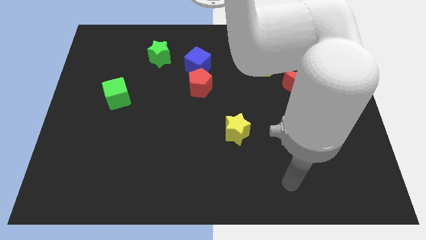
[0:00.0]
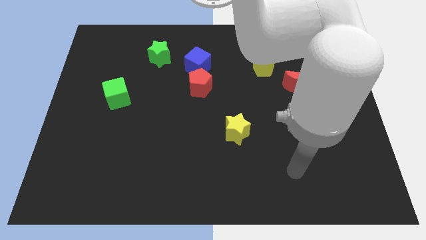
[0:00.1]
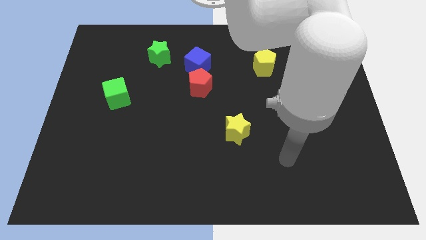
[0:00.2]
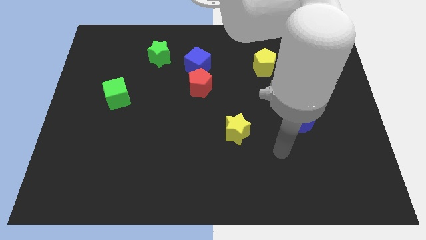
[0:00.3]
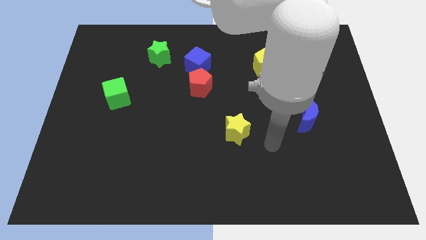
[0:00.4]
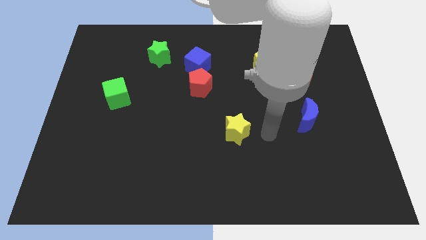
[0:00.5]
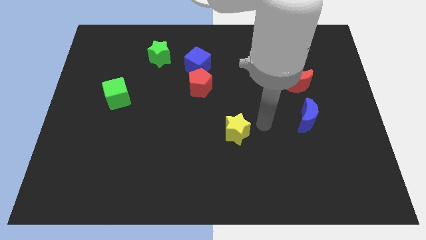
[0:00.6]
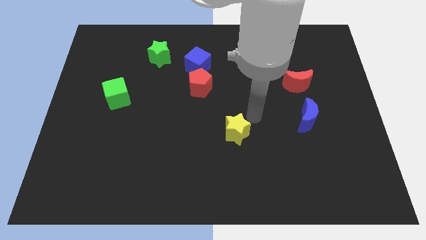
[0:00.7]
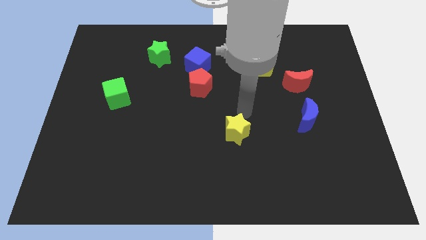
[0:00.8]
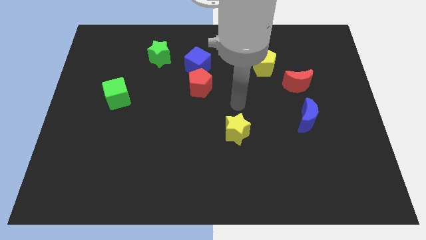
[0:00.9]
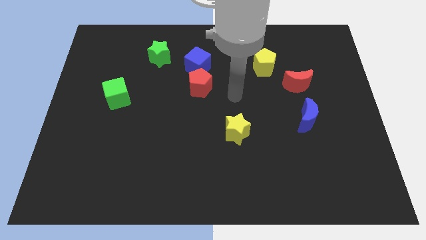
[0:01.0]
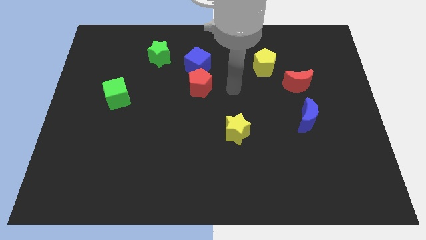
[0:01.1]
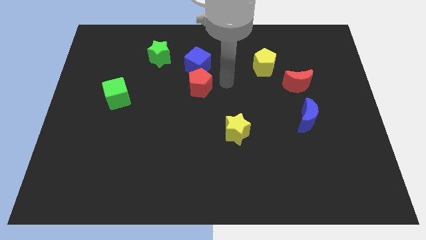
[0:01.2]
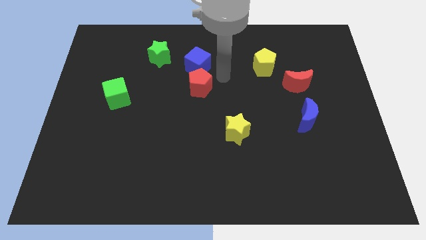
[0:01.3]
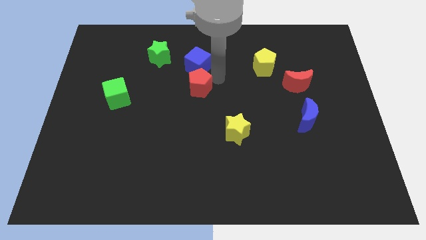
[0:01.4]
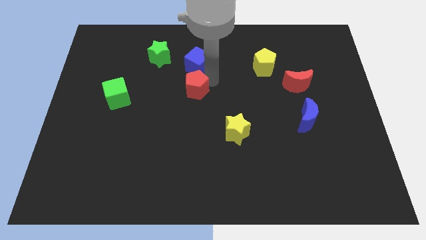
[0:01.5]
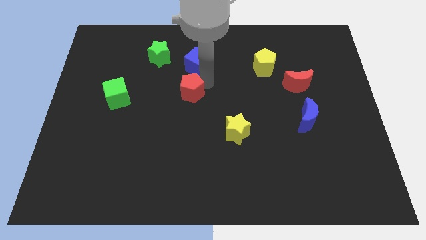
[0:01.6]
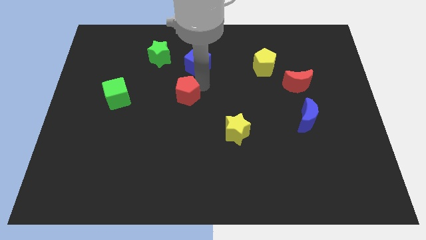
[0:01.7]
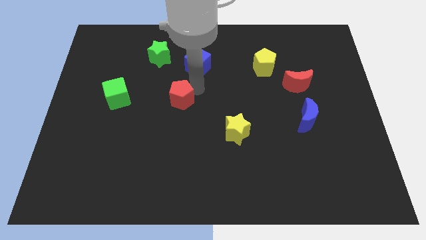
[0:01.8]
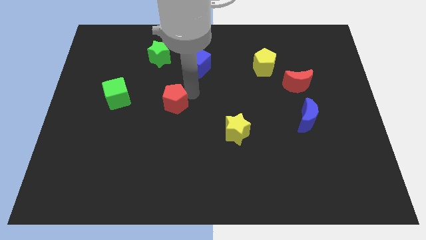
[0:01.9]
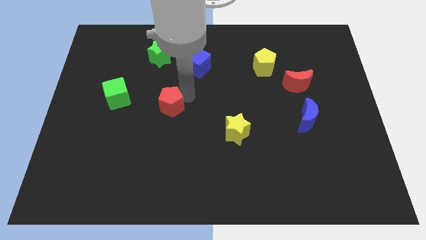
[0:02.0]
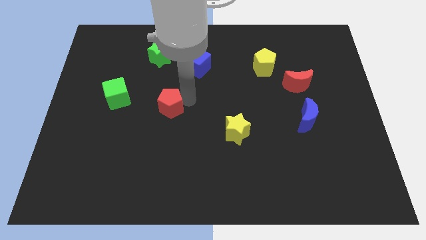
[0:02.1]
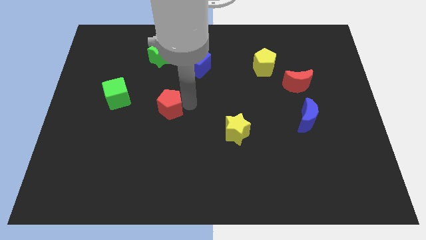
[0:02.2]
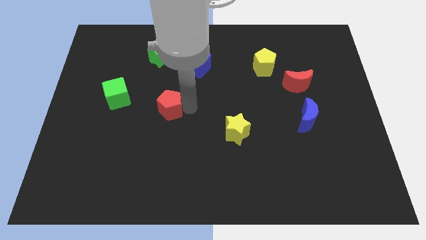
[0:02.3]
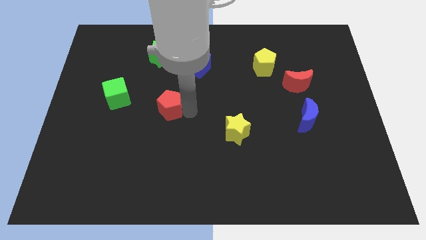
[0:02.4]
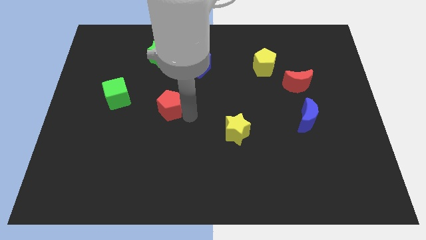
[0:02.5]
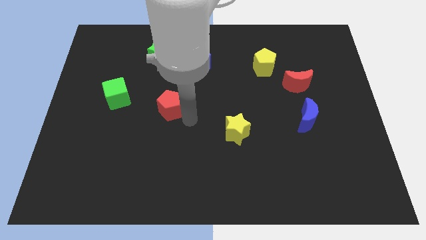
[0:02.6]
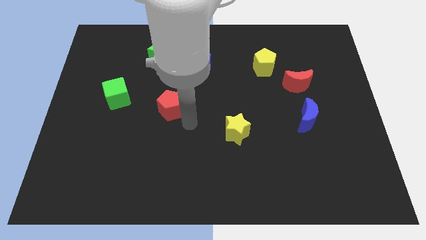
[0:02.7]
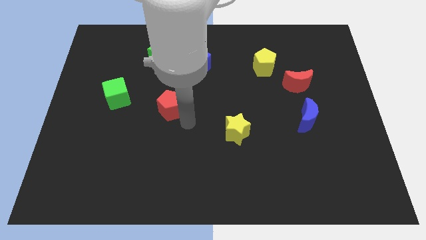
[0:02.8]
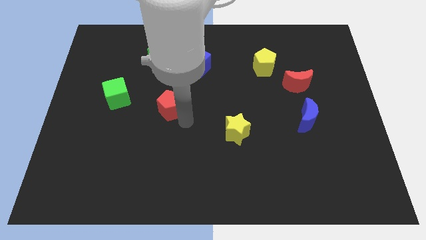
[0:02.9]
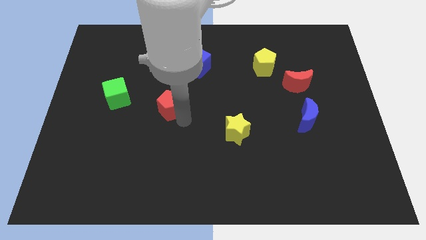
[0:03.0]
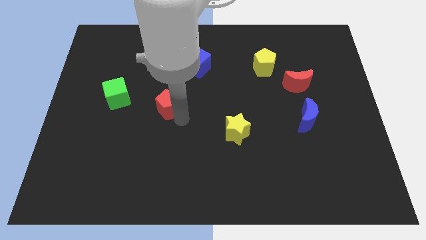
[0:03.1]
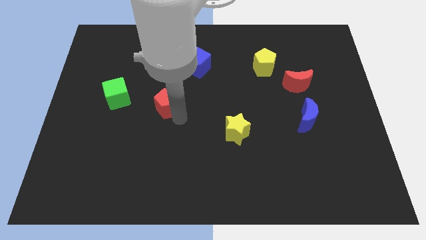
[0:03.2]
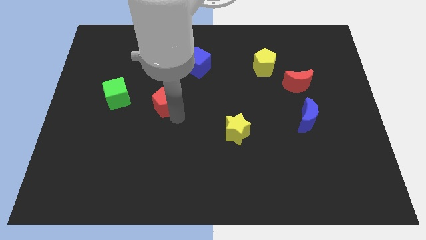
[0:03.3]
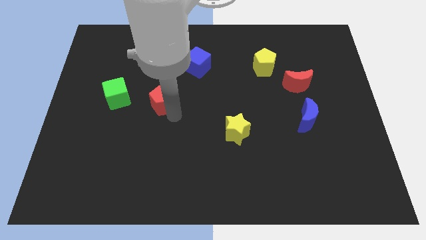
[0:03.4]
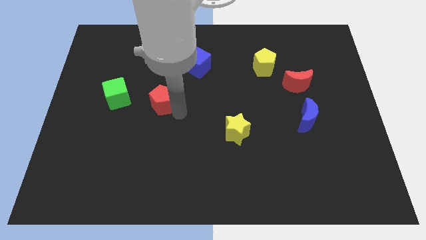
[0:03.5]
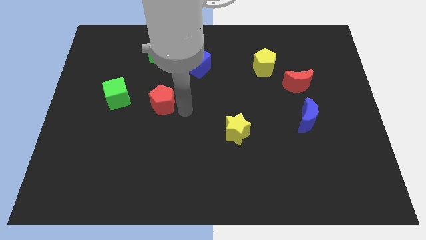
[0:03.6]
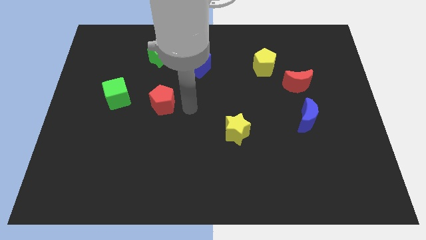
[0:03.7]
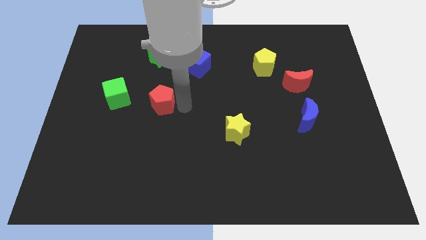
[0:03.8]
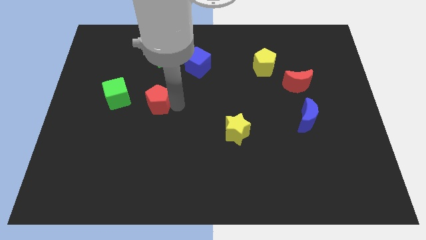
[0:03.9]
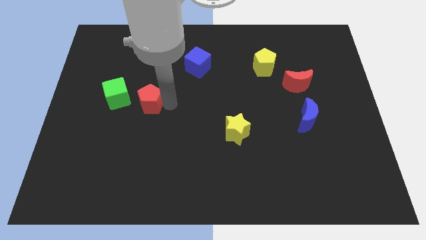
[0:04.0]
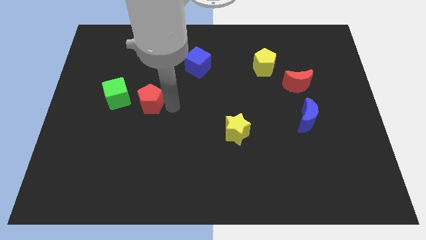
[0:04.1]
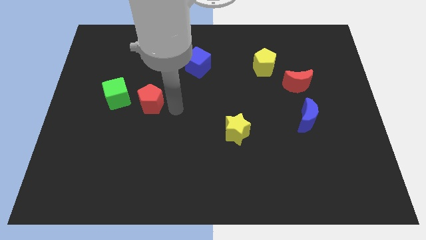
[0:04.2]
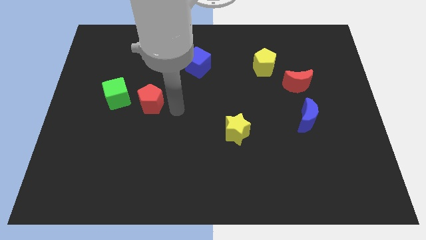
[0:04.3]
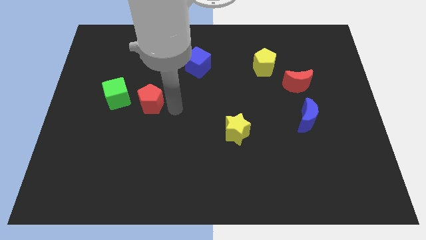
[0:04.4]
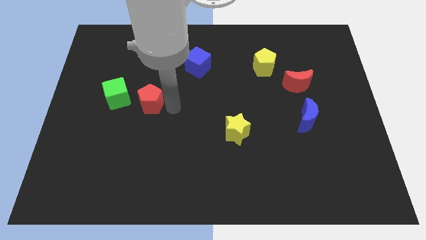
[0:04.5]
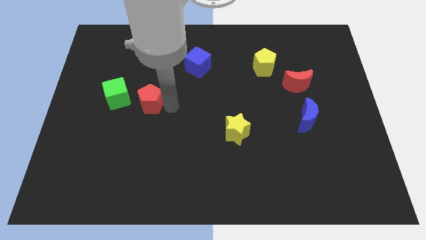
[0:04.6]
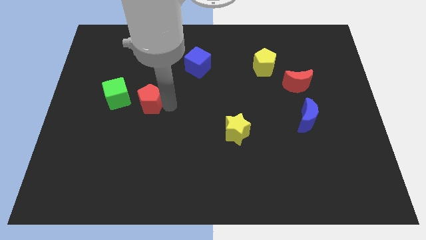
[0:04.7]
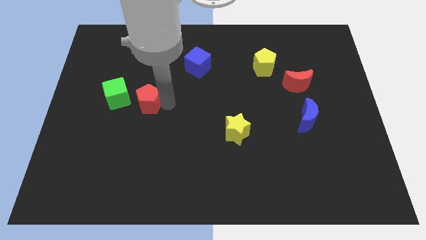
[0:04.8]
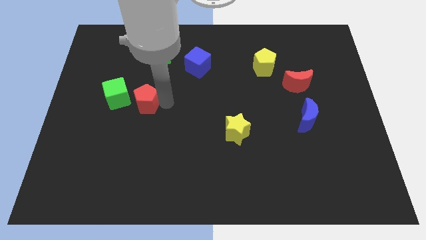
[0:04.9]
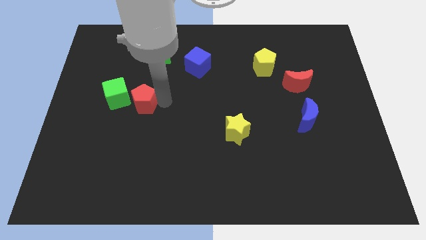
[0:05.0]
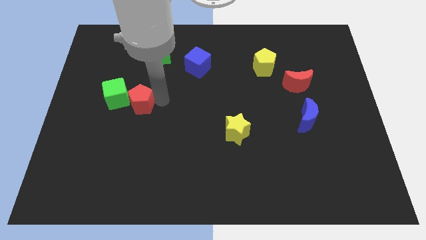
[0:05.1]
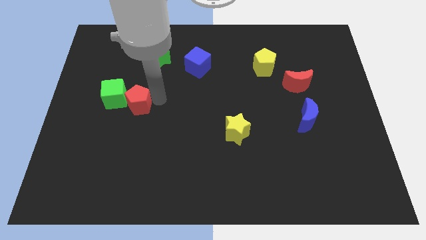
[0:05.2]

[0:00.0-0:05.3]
move the red pentagon towards the green cube

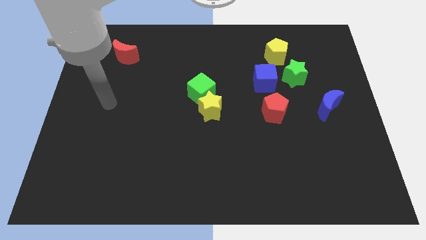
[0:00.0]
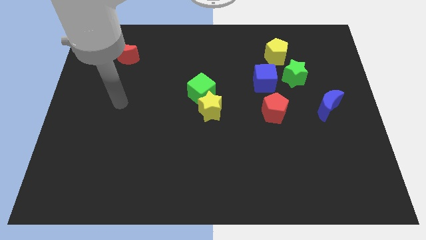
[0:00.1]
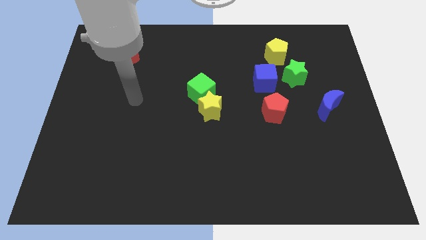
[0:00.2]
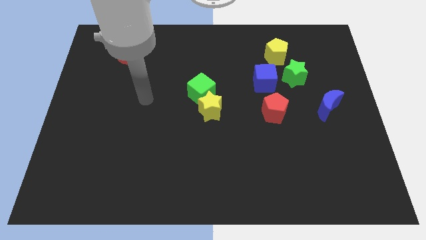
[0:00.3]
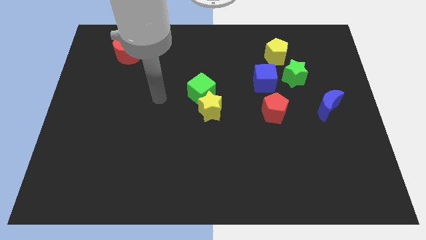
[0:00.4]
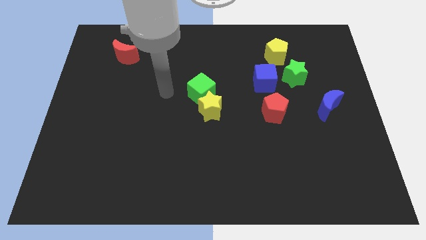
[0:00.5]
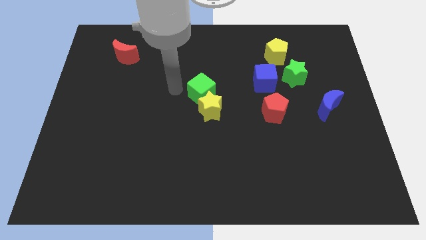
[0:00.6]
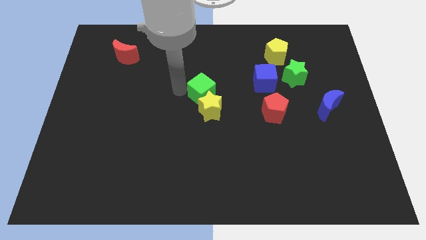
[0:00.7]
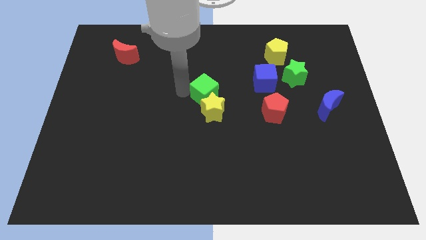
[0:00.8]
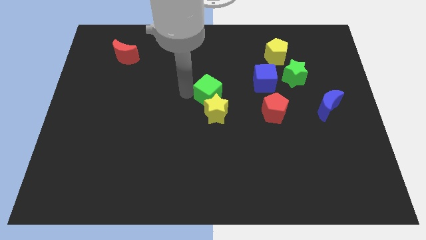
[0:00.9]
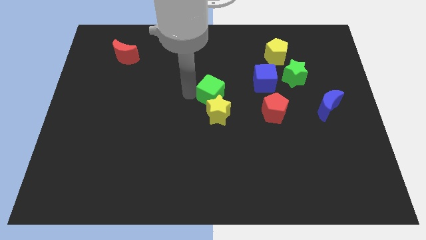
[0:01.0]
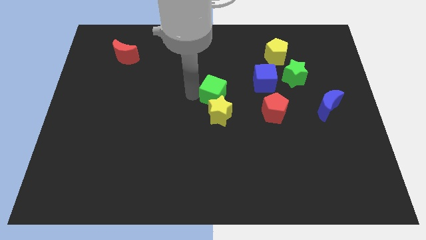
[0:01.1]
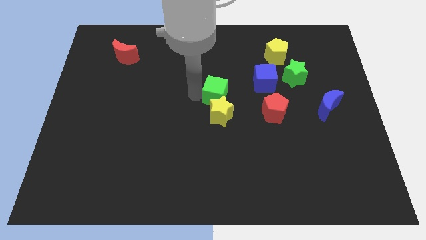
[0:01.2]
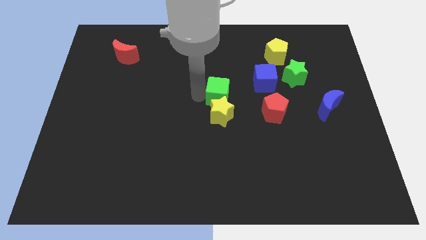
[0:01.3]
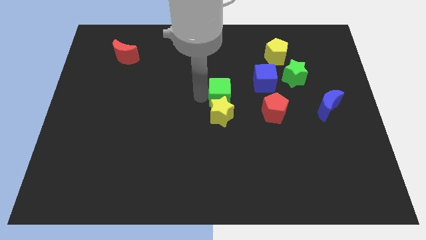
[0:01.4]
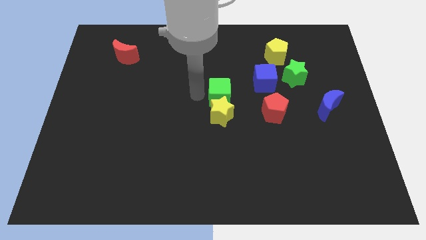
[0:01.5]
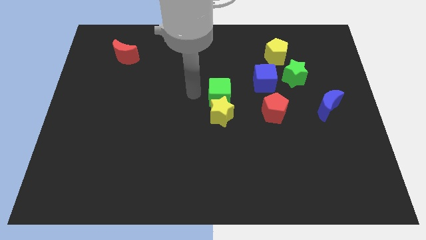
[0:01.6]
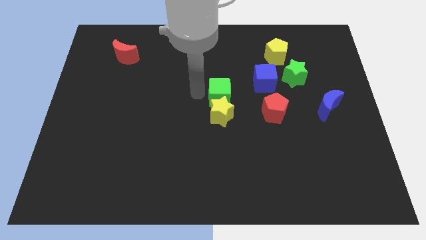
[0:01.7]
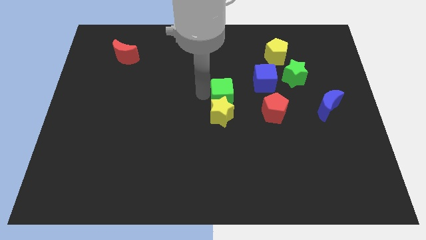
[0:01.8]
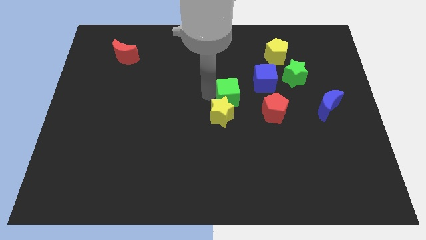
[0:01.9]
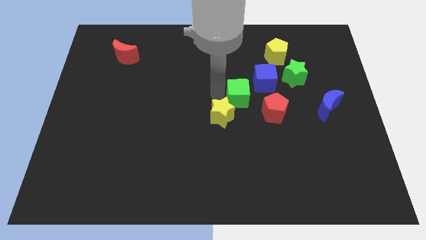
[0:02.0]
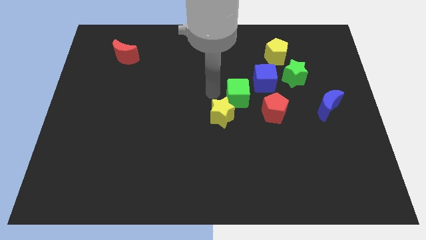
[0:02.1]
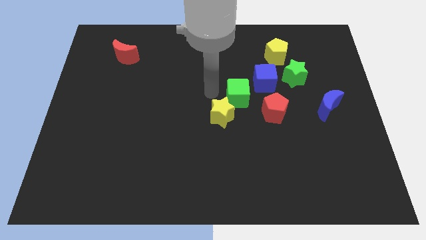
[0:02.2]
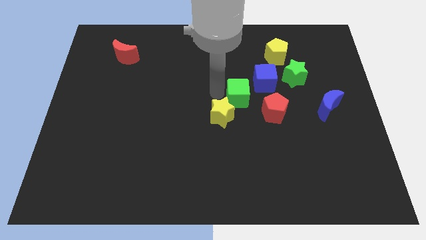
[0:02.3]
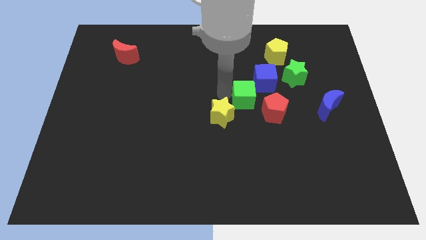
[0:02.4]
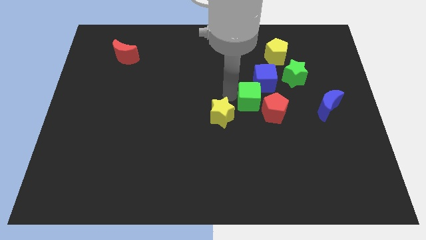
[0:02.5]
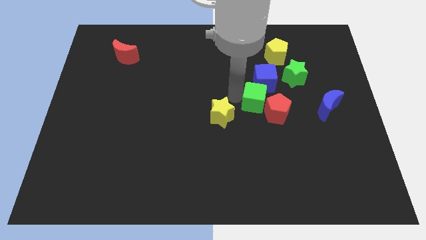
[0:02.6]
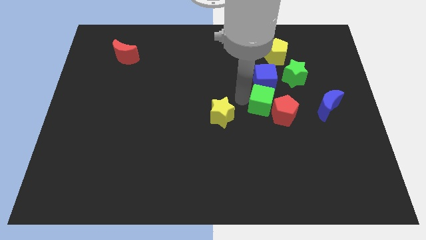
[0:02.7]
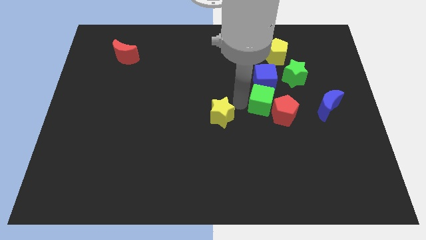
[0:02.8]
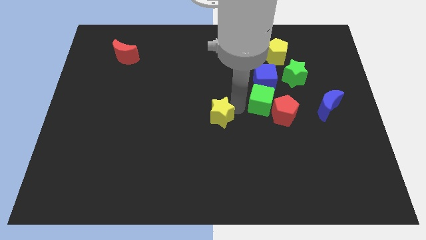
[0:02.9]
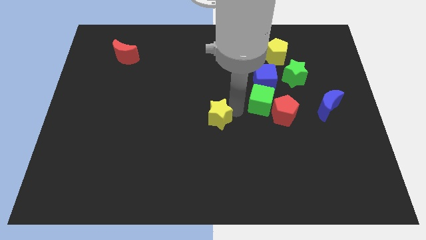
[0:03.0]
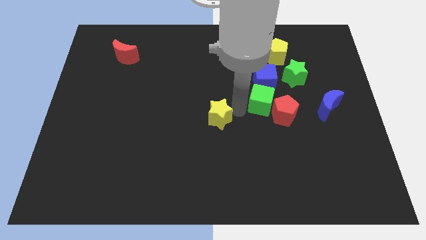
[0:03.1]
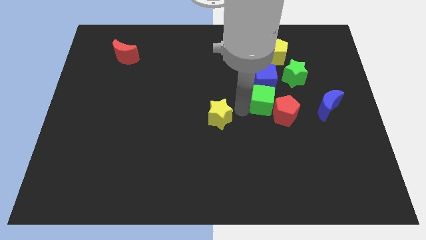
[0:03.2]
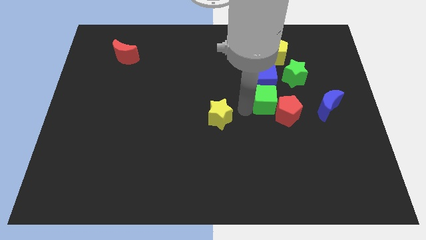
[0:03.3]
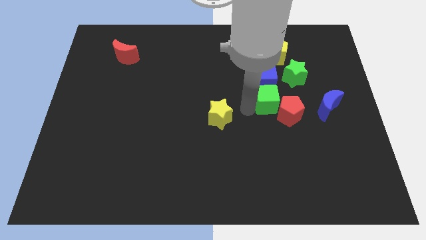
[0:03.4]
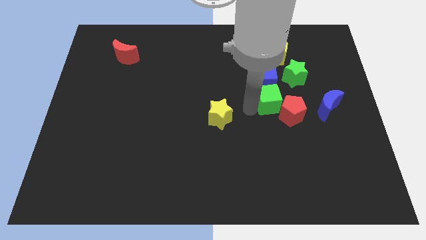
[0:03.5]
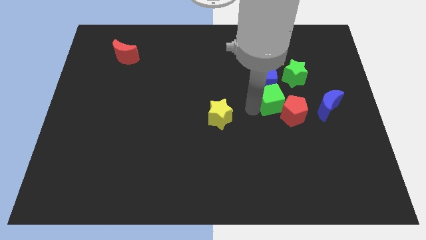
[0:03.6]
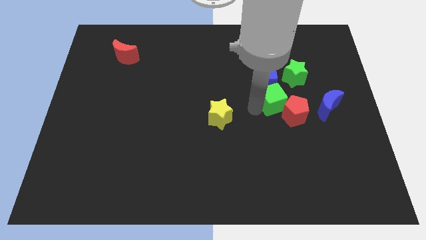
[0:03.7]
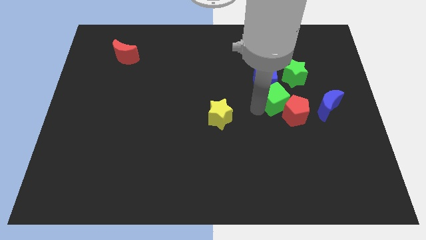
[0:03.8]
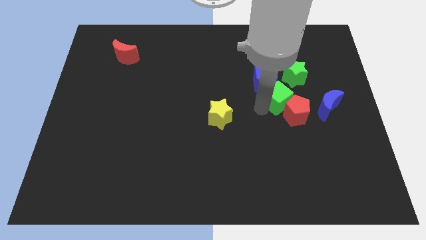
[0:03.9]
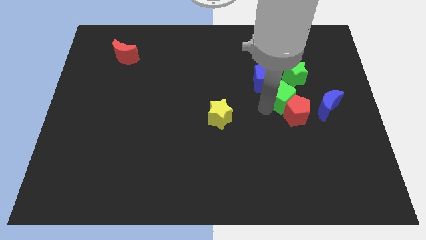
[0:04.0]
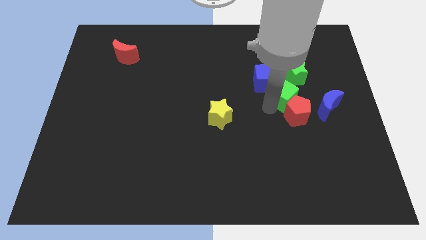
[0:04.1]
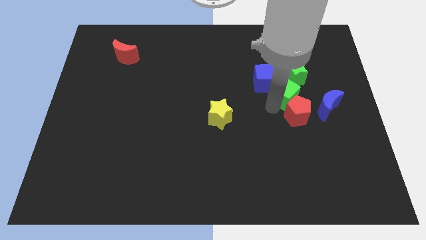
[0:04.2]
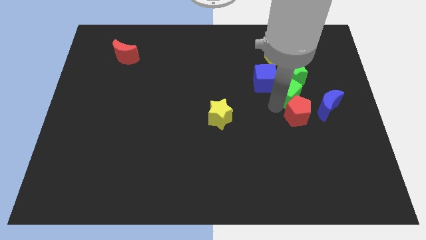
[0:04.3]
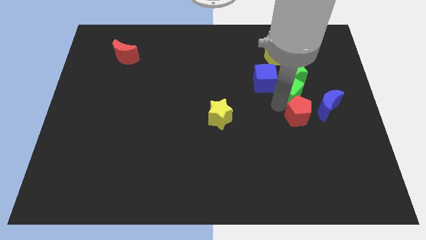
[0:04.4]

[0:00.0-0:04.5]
put the green cube towards the green star
